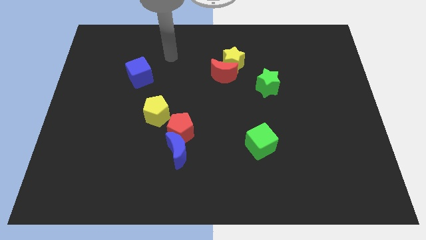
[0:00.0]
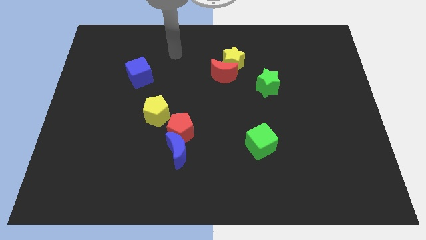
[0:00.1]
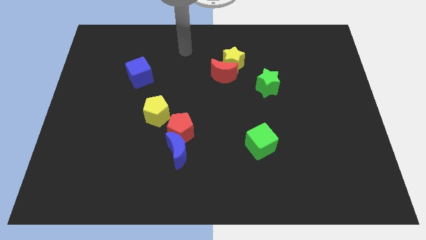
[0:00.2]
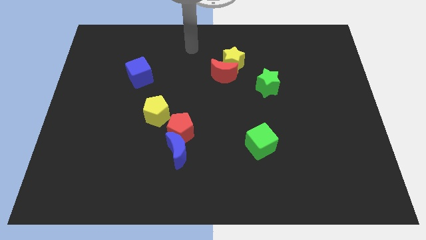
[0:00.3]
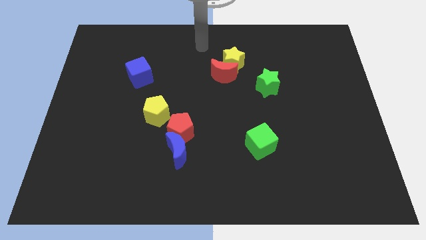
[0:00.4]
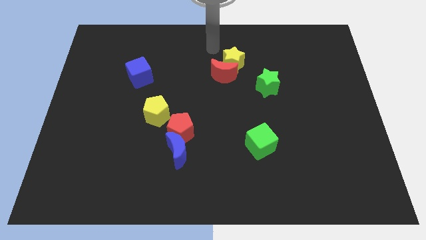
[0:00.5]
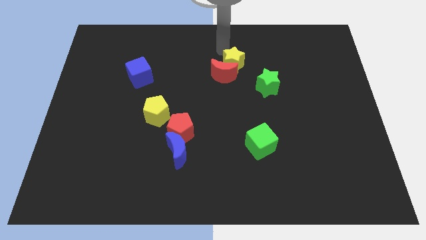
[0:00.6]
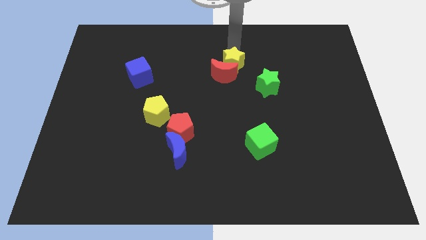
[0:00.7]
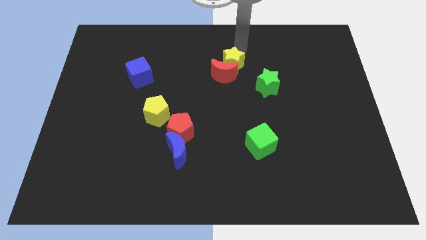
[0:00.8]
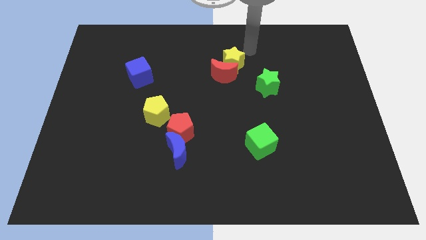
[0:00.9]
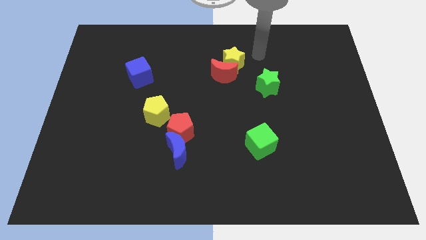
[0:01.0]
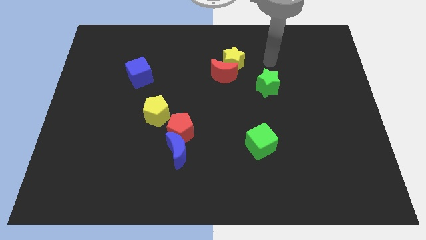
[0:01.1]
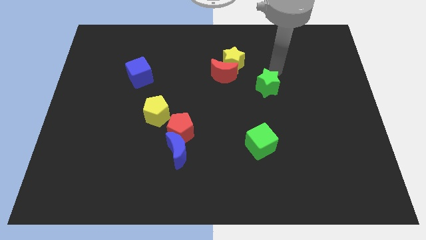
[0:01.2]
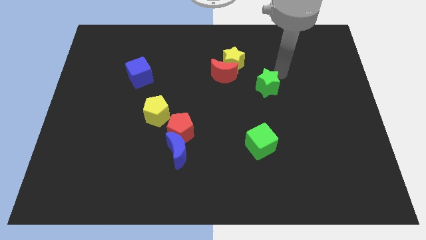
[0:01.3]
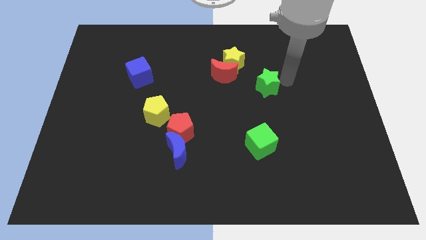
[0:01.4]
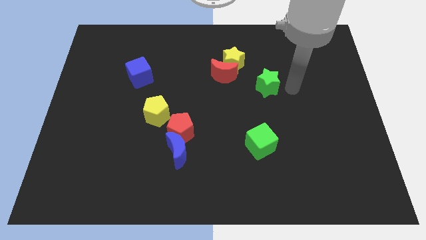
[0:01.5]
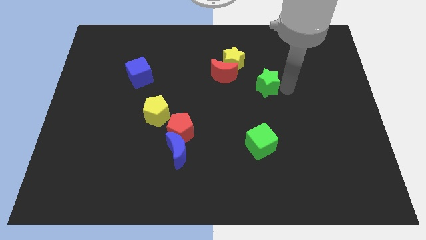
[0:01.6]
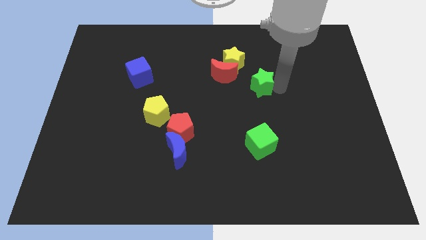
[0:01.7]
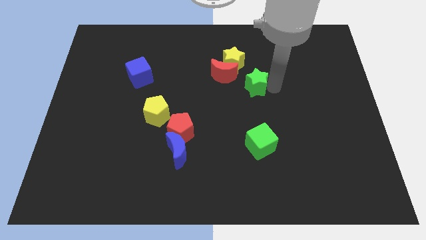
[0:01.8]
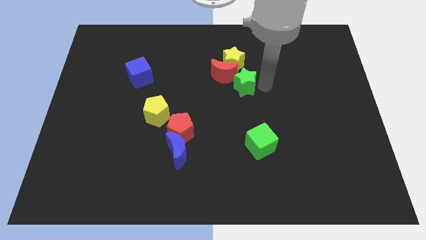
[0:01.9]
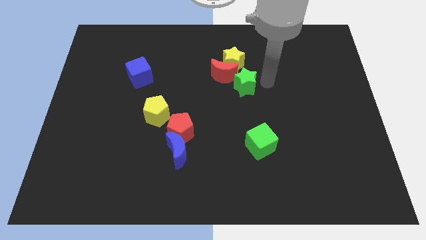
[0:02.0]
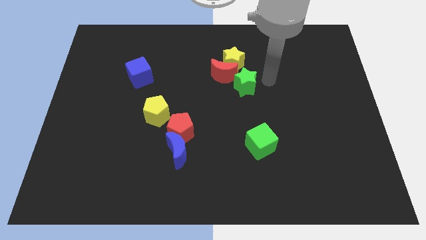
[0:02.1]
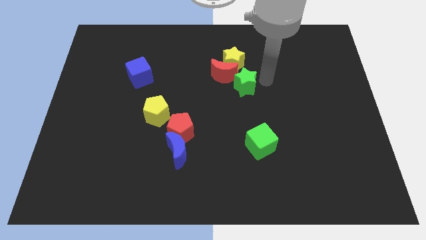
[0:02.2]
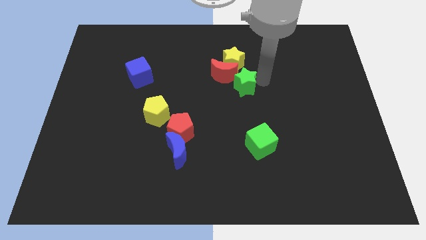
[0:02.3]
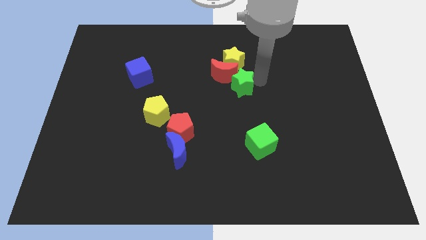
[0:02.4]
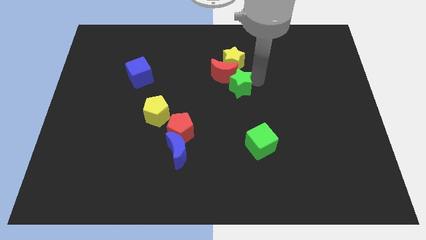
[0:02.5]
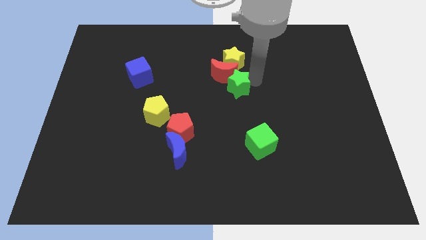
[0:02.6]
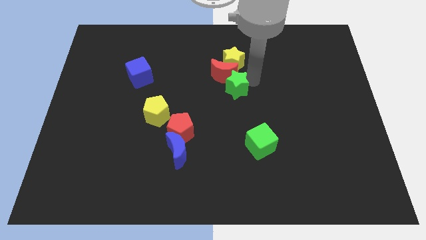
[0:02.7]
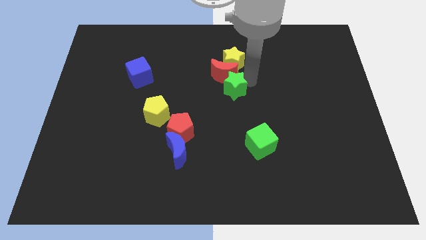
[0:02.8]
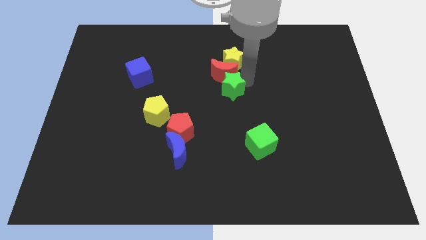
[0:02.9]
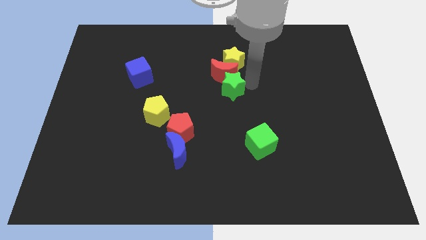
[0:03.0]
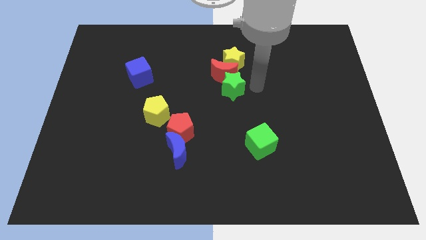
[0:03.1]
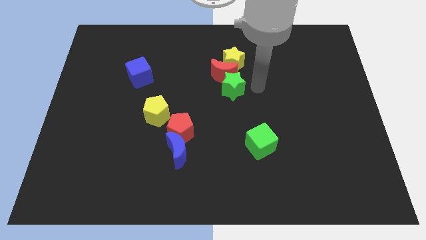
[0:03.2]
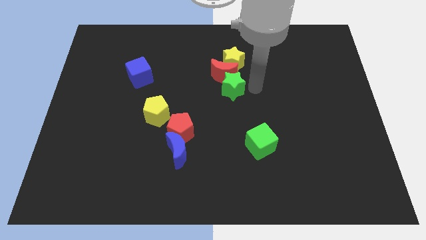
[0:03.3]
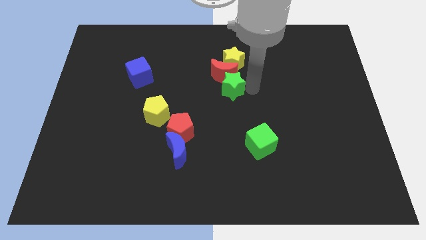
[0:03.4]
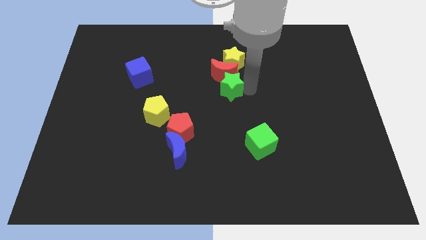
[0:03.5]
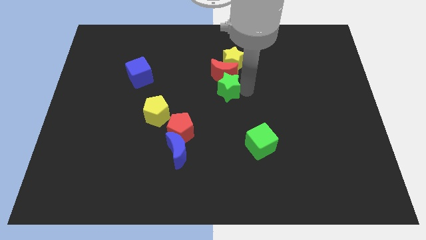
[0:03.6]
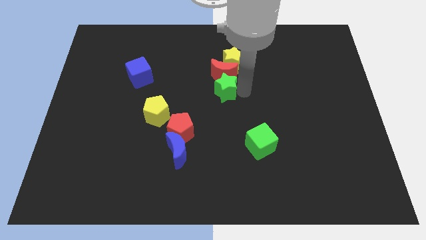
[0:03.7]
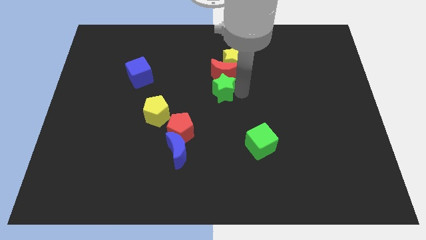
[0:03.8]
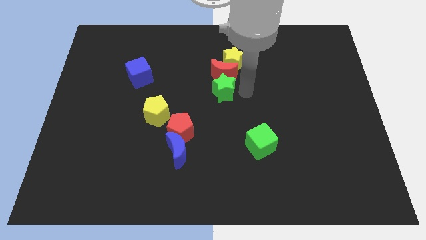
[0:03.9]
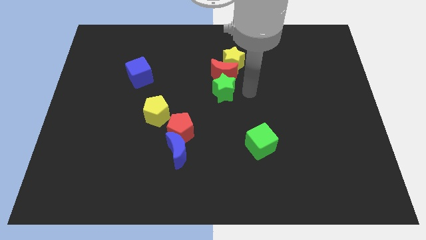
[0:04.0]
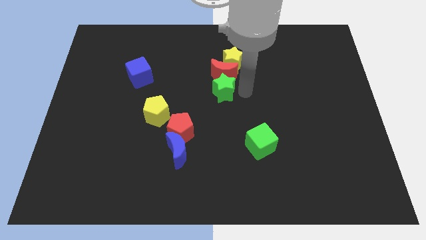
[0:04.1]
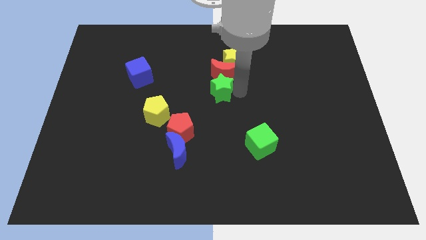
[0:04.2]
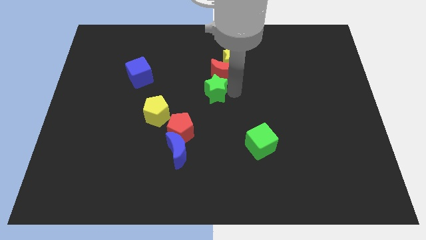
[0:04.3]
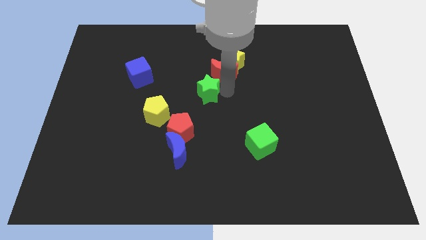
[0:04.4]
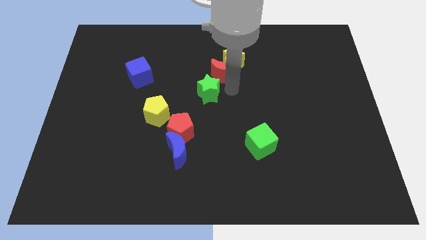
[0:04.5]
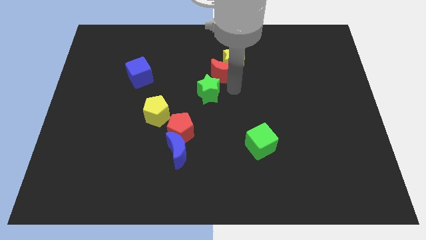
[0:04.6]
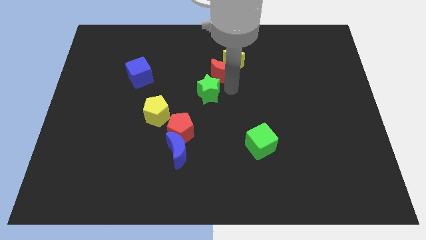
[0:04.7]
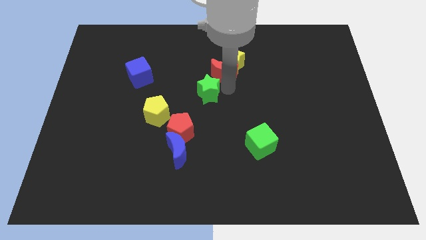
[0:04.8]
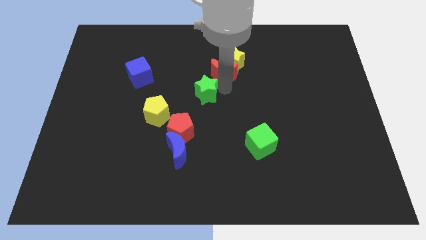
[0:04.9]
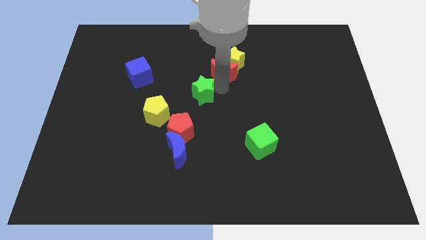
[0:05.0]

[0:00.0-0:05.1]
move the green star to the top side of the red pentagon

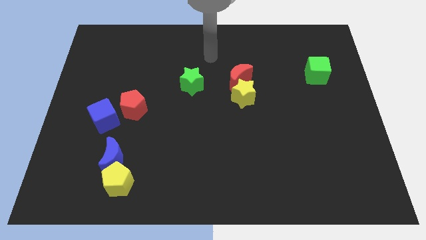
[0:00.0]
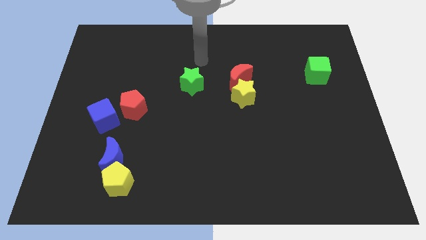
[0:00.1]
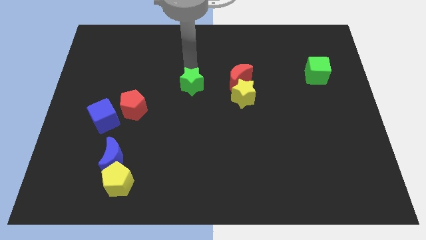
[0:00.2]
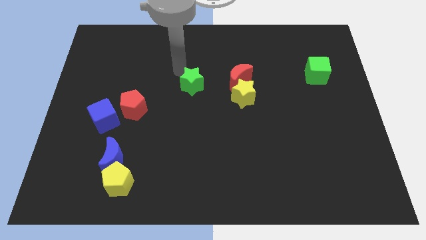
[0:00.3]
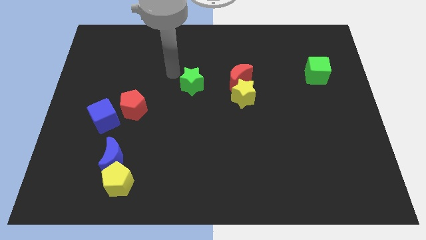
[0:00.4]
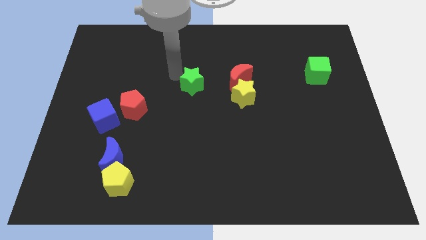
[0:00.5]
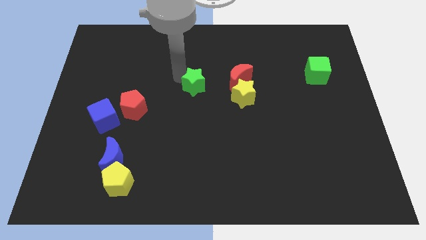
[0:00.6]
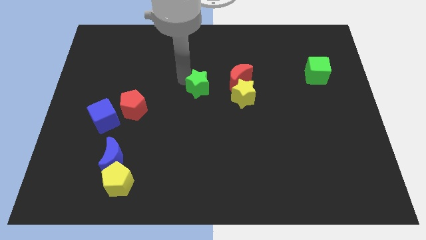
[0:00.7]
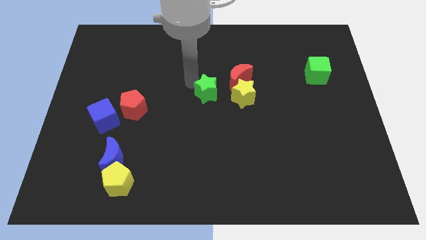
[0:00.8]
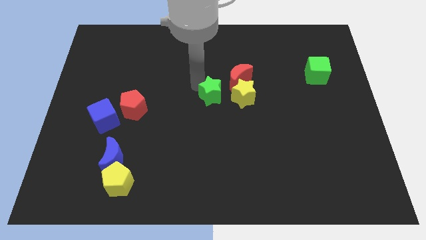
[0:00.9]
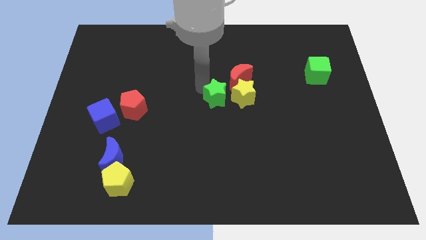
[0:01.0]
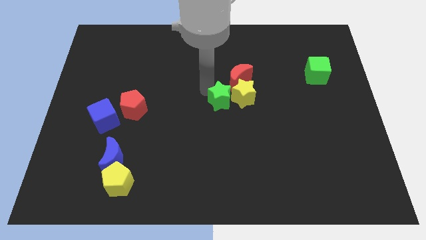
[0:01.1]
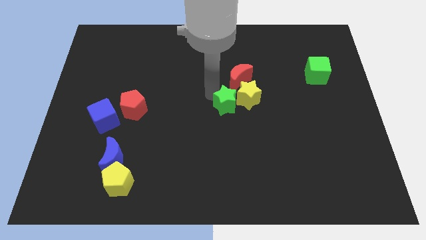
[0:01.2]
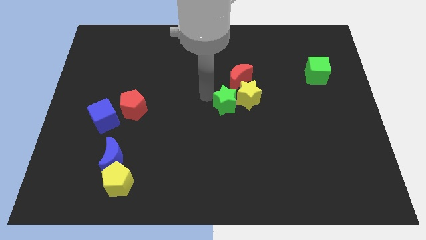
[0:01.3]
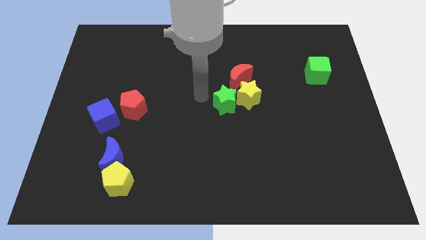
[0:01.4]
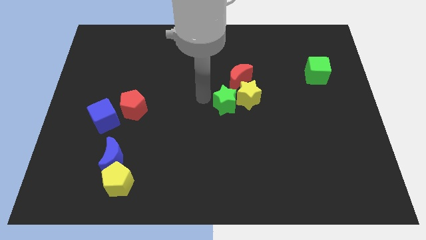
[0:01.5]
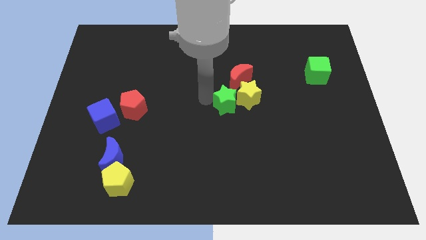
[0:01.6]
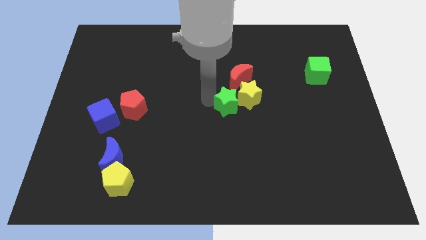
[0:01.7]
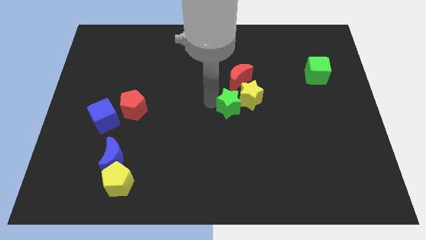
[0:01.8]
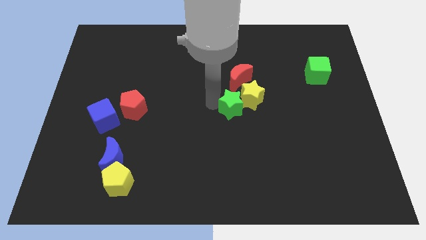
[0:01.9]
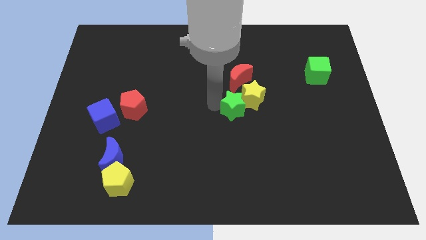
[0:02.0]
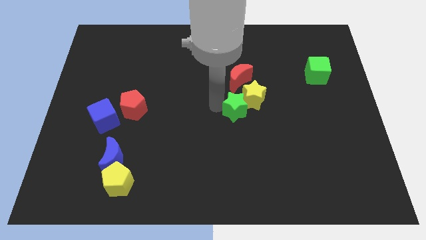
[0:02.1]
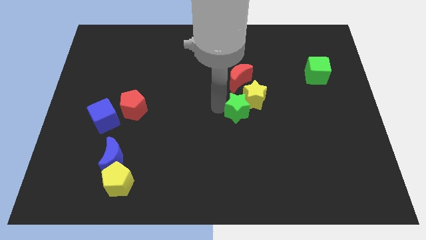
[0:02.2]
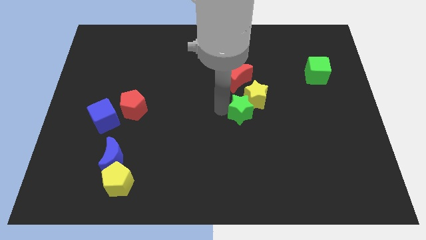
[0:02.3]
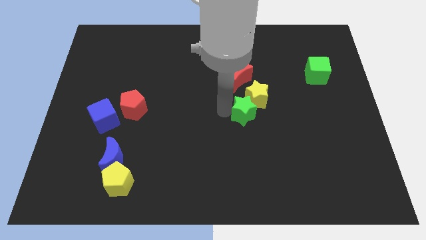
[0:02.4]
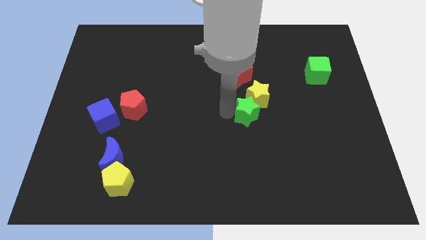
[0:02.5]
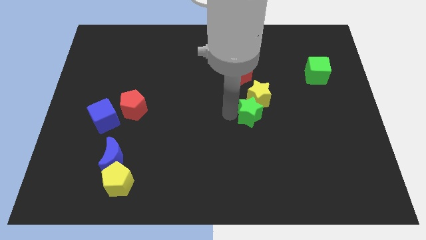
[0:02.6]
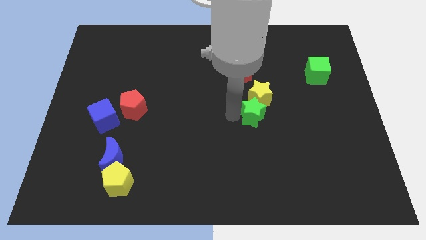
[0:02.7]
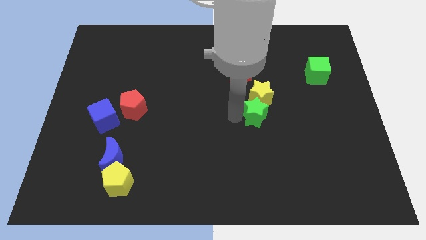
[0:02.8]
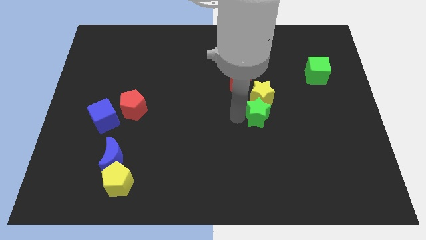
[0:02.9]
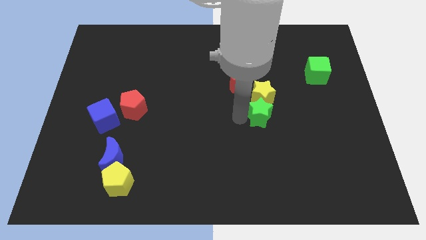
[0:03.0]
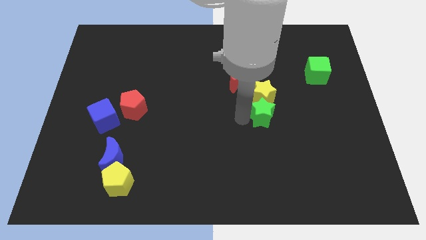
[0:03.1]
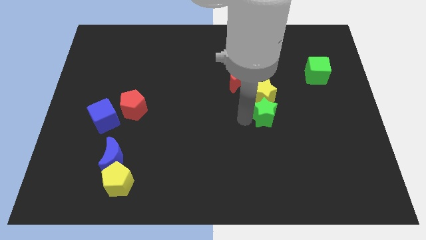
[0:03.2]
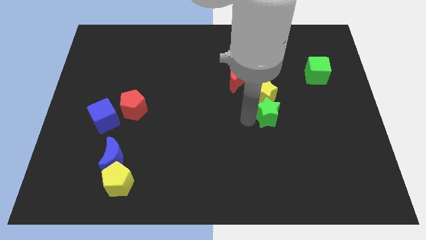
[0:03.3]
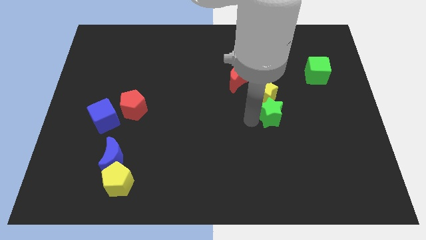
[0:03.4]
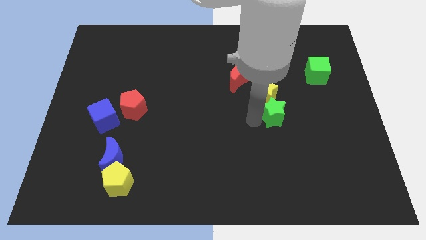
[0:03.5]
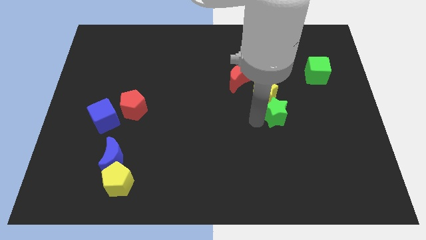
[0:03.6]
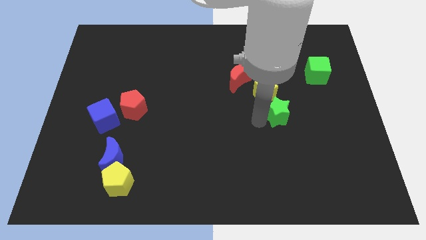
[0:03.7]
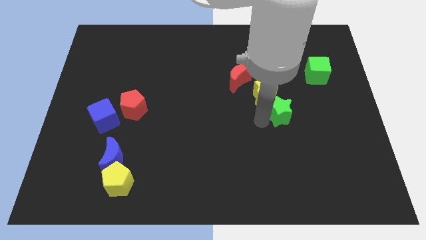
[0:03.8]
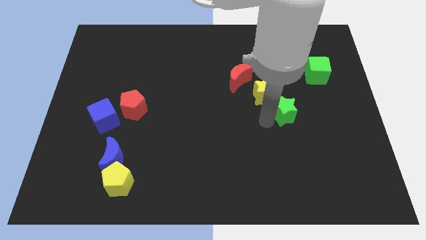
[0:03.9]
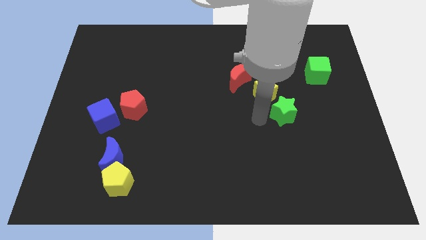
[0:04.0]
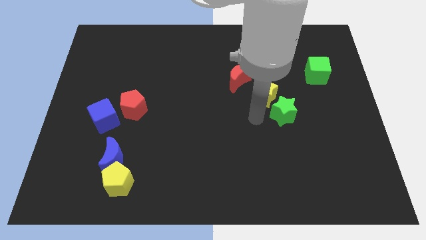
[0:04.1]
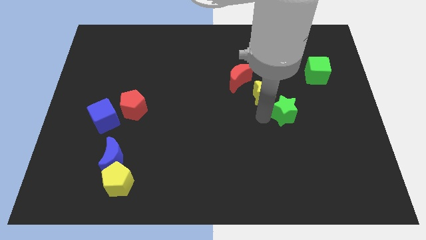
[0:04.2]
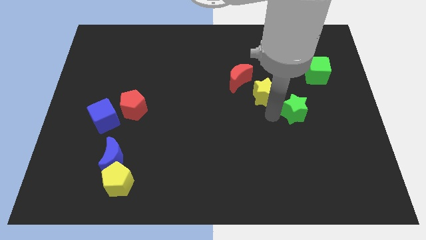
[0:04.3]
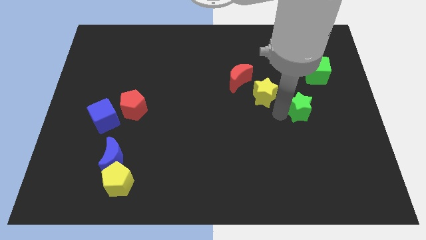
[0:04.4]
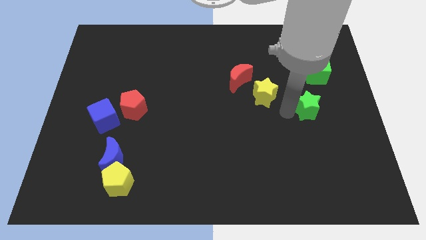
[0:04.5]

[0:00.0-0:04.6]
push the green star below the green cube
